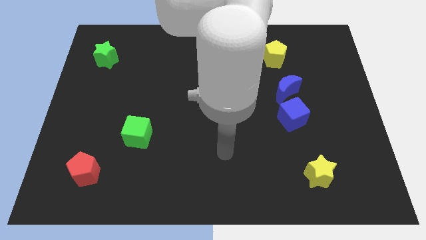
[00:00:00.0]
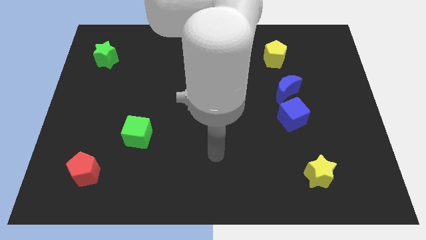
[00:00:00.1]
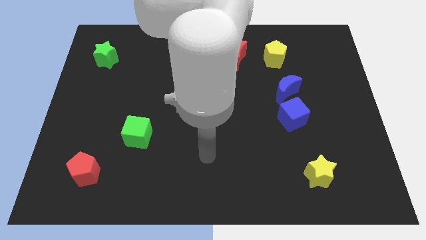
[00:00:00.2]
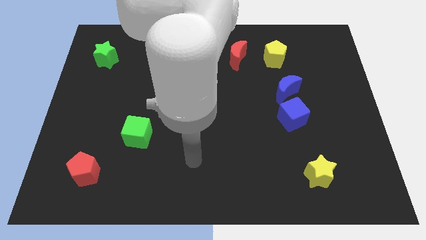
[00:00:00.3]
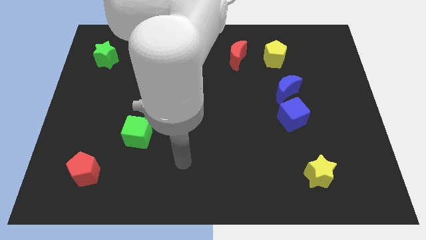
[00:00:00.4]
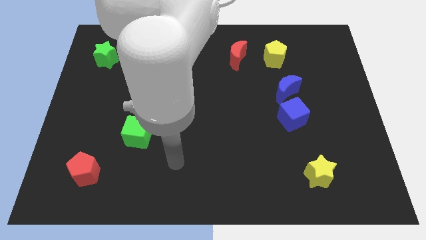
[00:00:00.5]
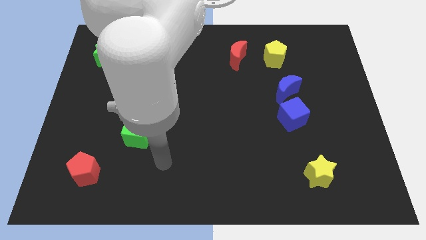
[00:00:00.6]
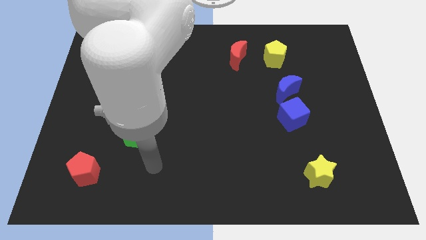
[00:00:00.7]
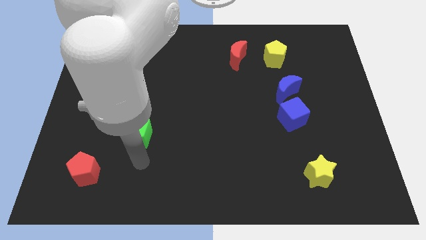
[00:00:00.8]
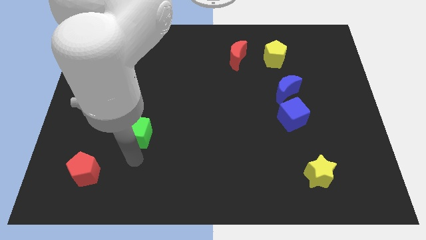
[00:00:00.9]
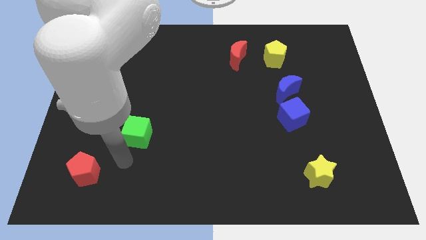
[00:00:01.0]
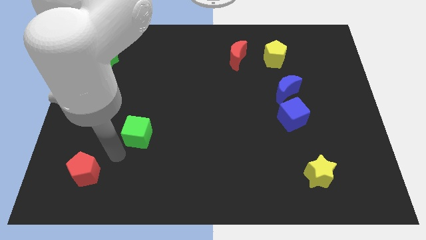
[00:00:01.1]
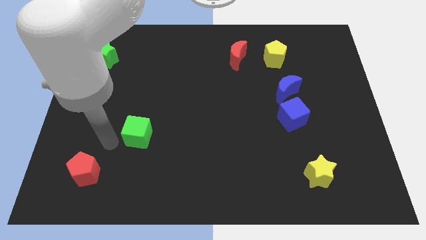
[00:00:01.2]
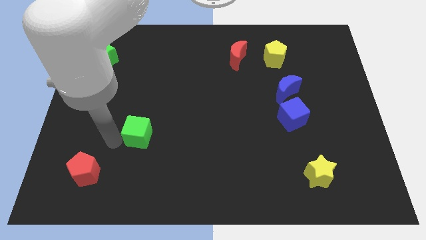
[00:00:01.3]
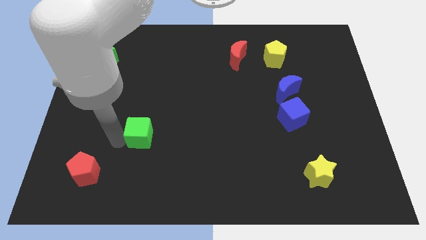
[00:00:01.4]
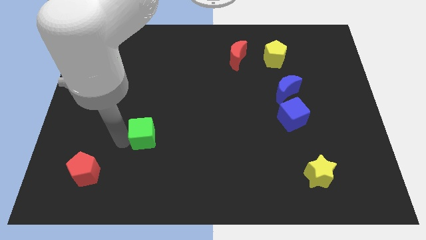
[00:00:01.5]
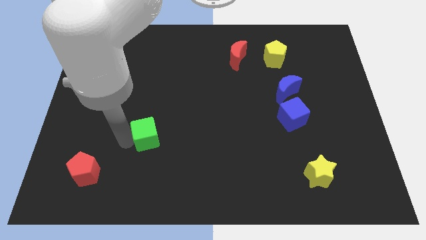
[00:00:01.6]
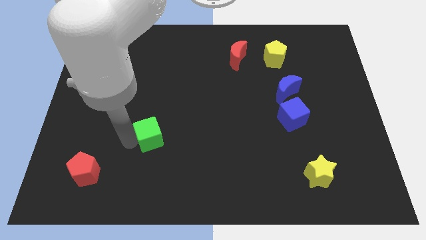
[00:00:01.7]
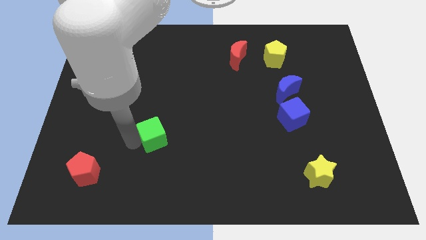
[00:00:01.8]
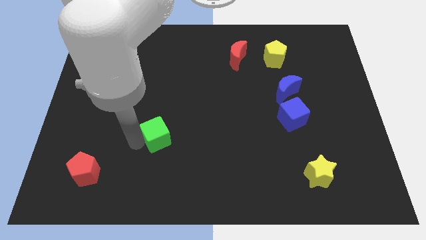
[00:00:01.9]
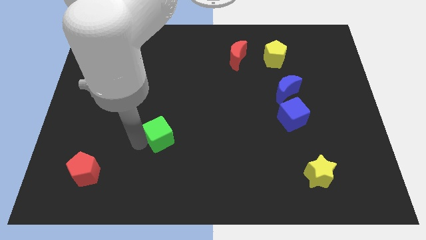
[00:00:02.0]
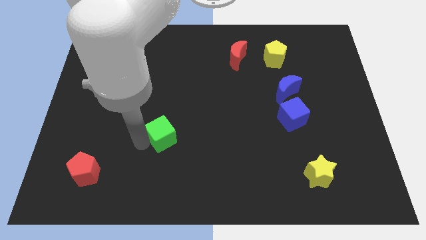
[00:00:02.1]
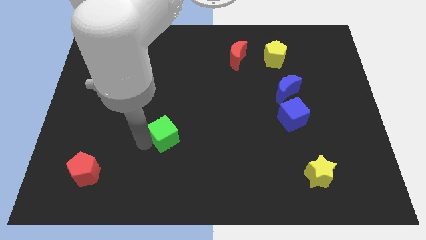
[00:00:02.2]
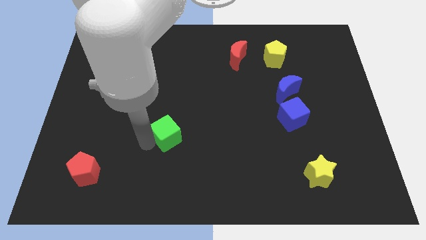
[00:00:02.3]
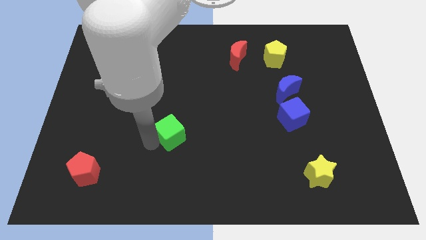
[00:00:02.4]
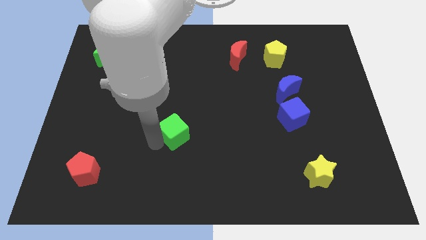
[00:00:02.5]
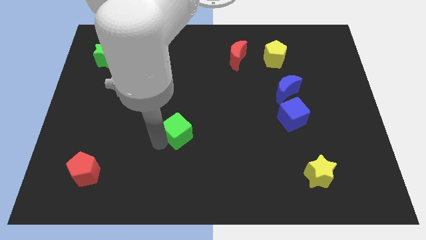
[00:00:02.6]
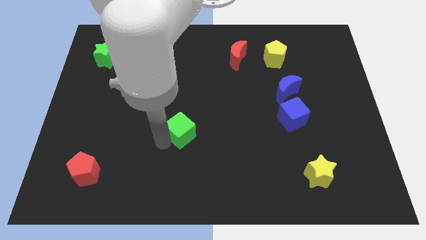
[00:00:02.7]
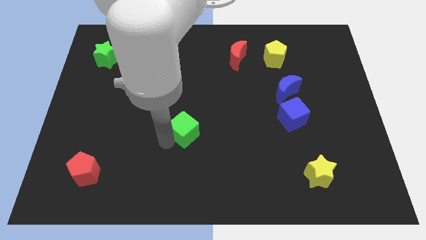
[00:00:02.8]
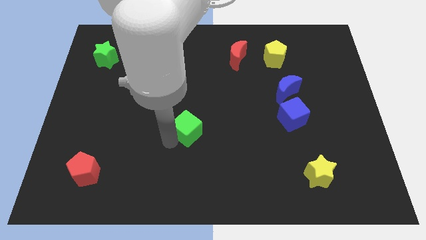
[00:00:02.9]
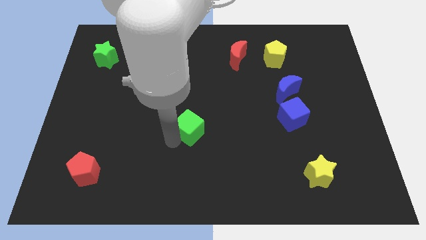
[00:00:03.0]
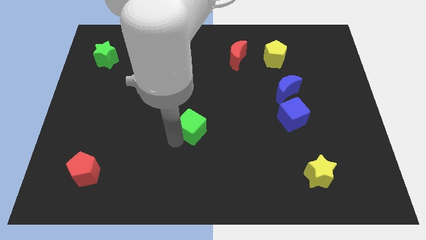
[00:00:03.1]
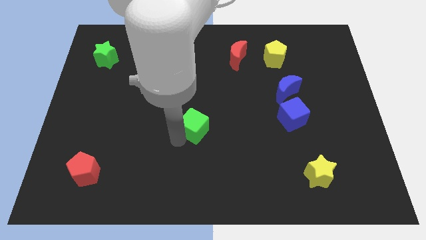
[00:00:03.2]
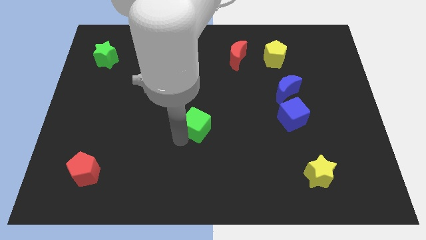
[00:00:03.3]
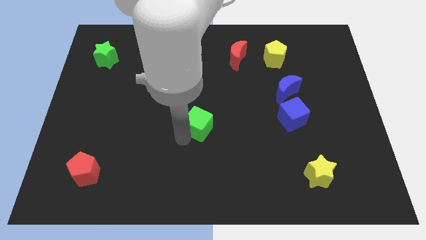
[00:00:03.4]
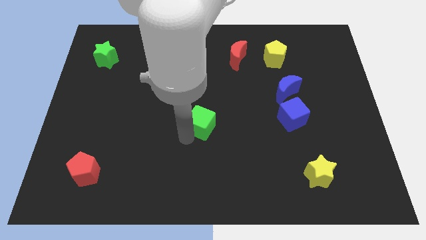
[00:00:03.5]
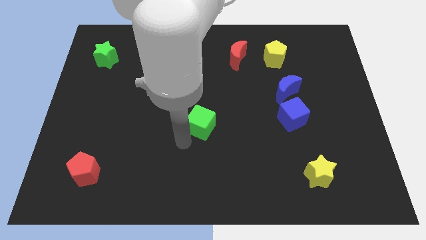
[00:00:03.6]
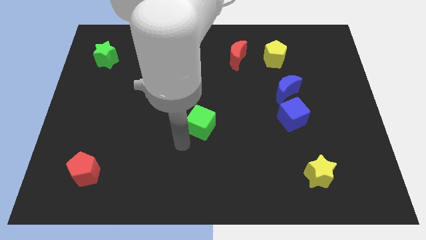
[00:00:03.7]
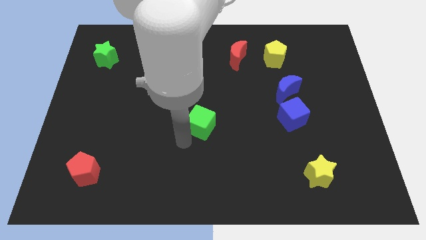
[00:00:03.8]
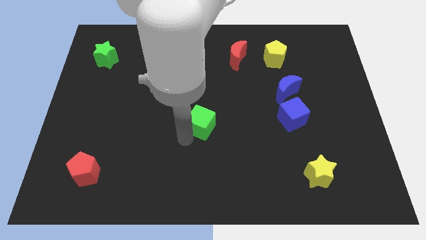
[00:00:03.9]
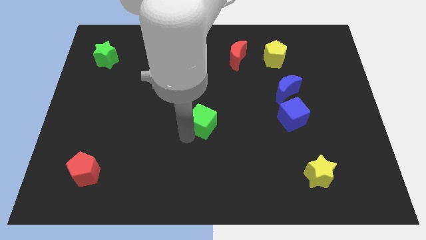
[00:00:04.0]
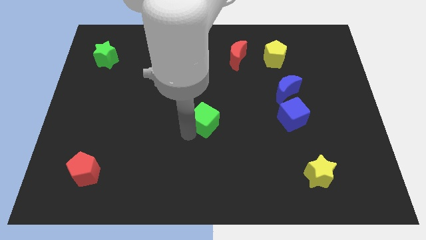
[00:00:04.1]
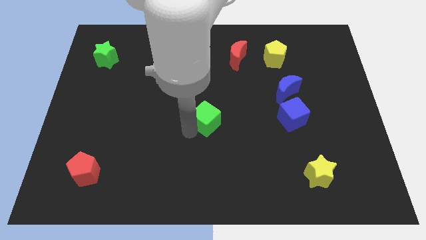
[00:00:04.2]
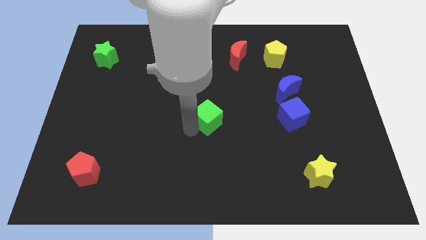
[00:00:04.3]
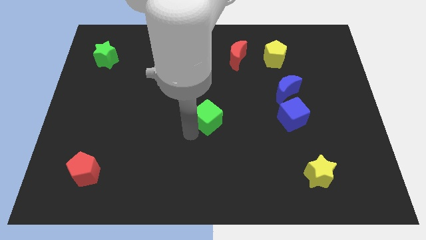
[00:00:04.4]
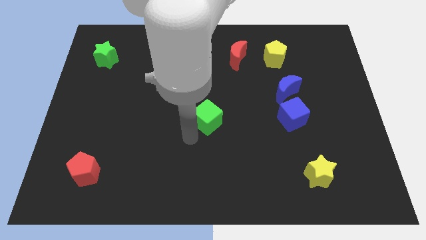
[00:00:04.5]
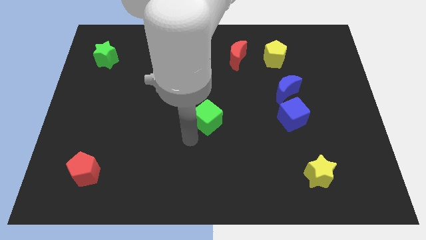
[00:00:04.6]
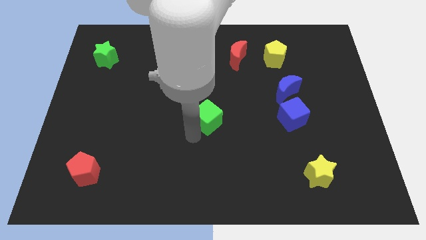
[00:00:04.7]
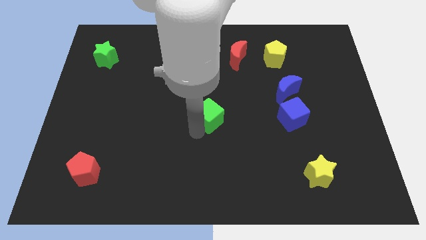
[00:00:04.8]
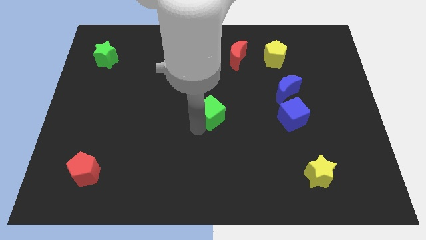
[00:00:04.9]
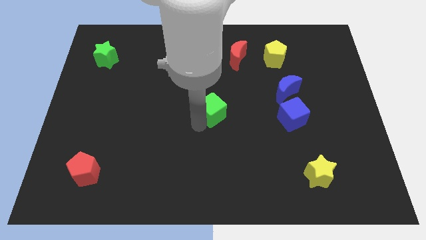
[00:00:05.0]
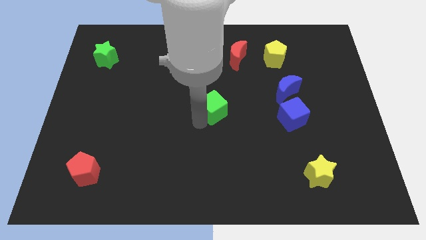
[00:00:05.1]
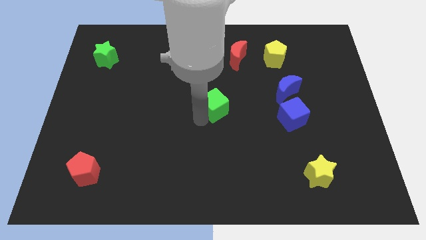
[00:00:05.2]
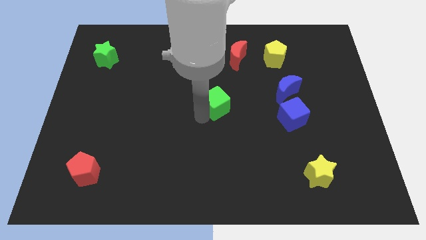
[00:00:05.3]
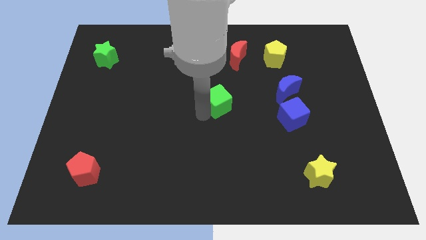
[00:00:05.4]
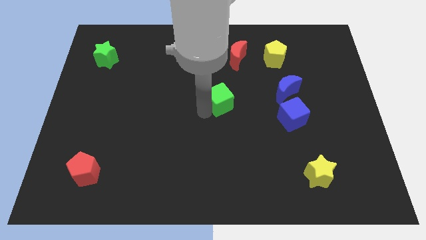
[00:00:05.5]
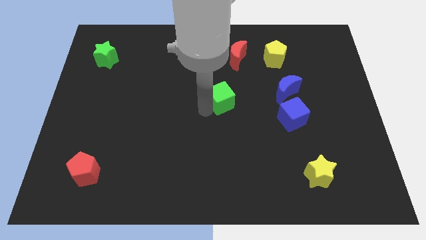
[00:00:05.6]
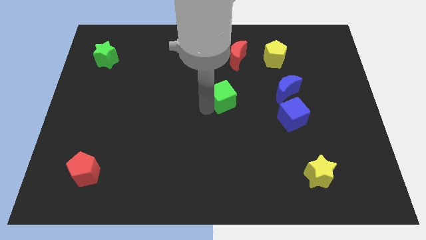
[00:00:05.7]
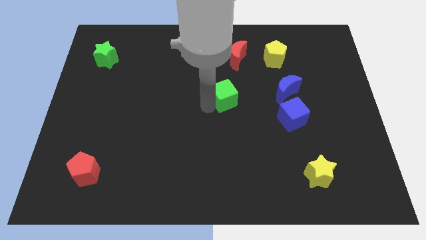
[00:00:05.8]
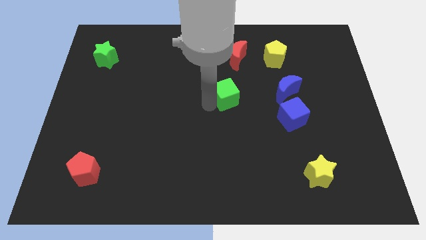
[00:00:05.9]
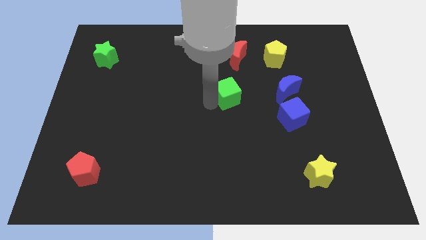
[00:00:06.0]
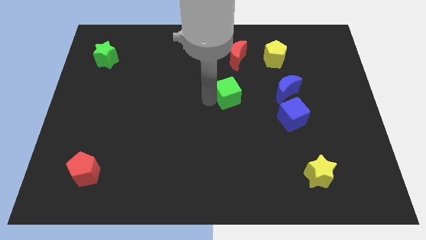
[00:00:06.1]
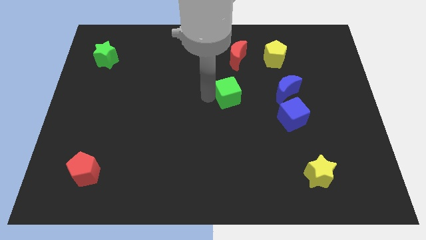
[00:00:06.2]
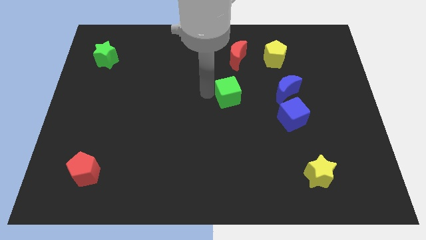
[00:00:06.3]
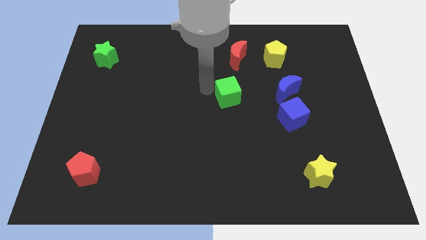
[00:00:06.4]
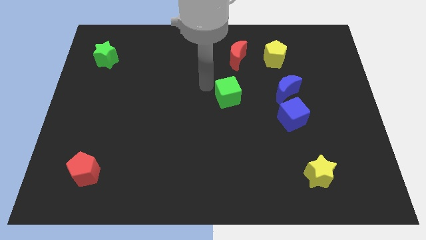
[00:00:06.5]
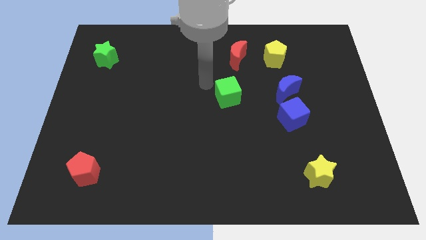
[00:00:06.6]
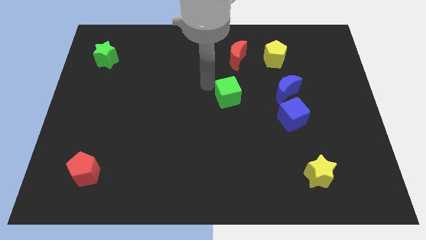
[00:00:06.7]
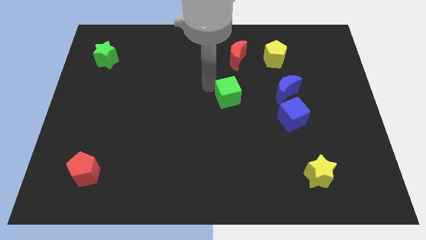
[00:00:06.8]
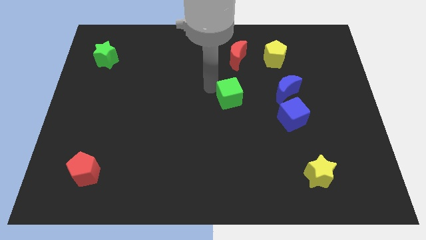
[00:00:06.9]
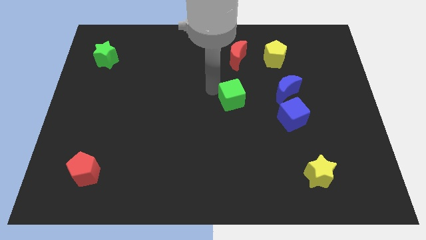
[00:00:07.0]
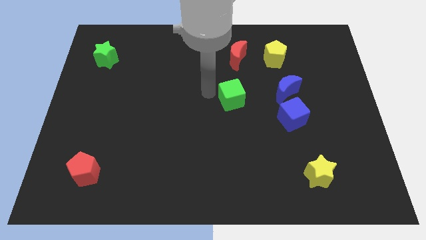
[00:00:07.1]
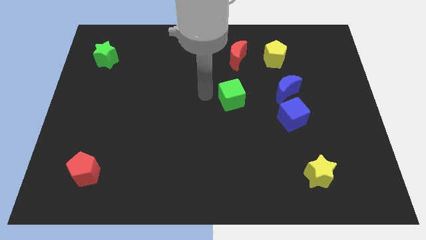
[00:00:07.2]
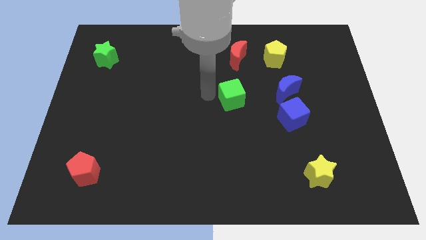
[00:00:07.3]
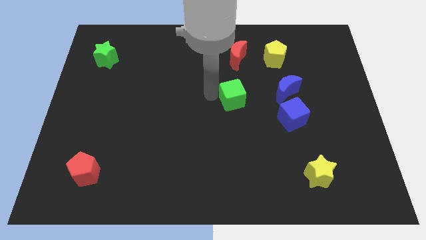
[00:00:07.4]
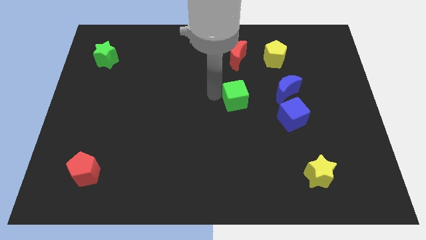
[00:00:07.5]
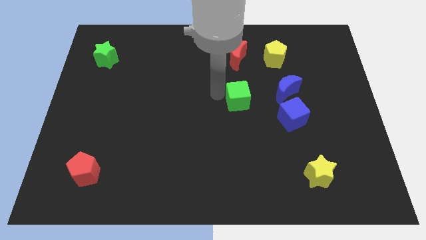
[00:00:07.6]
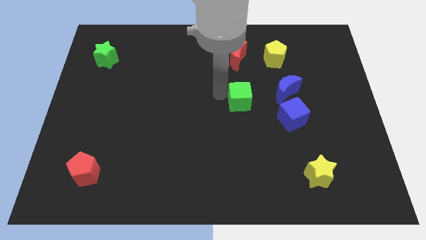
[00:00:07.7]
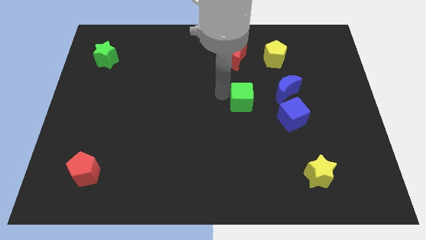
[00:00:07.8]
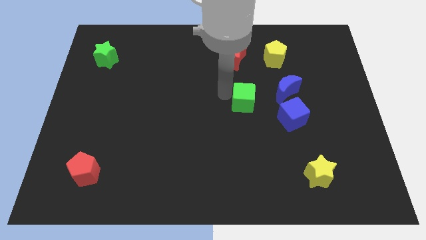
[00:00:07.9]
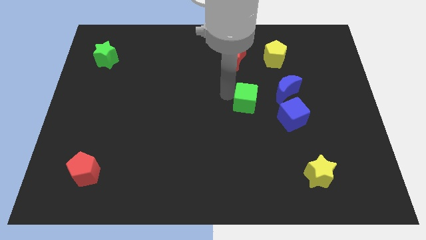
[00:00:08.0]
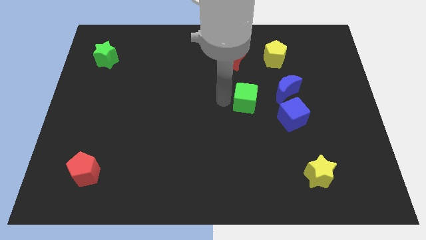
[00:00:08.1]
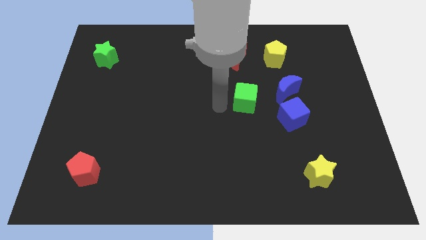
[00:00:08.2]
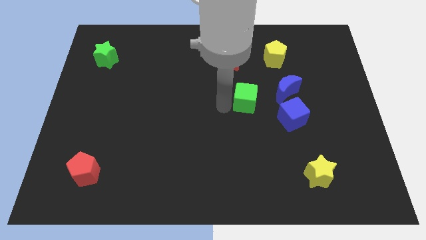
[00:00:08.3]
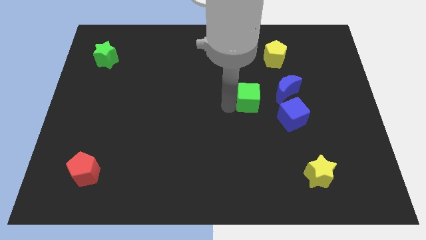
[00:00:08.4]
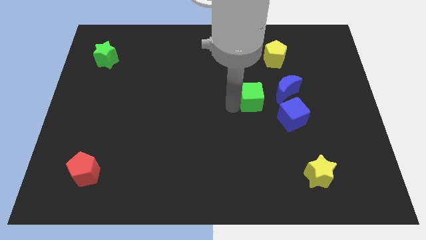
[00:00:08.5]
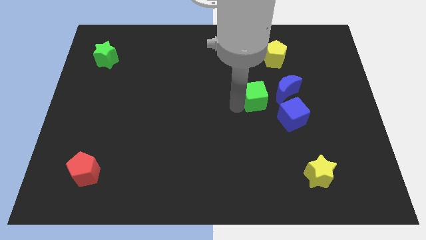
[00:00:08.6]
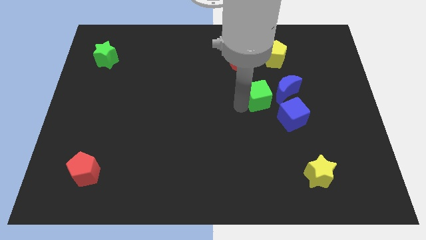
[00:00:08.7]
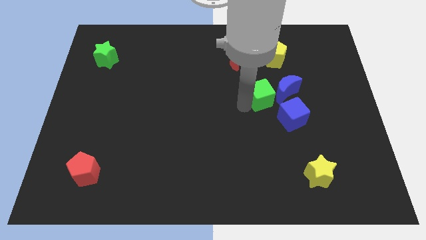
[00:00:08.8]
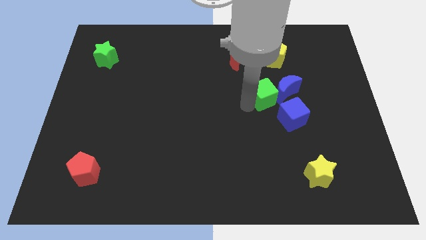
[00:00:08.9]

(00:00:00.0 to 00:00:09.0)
move the green cube next to the blue moon
